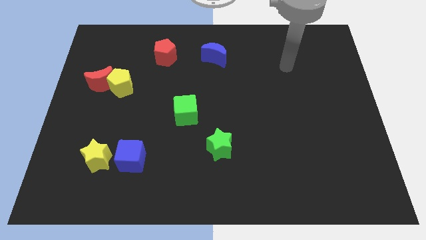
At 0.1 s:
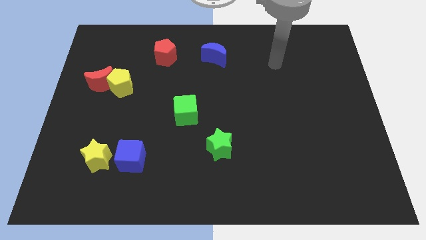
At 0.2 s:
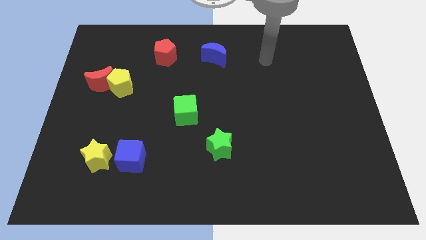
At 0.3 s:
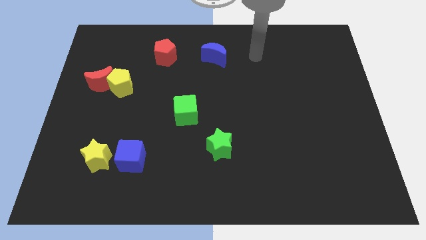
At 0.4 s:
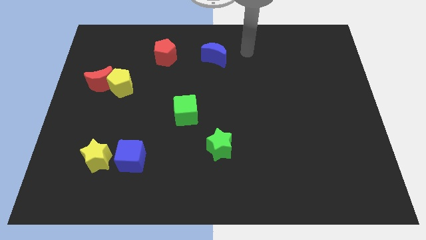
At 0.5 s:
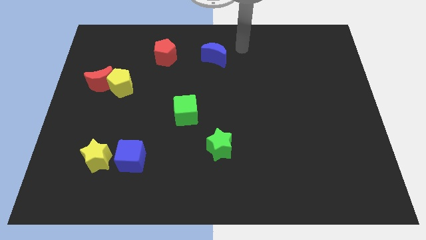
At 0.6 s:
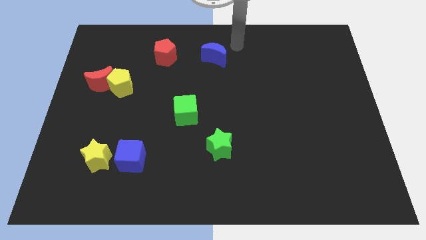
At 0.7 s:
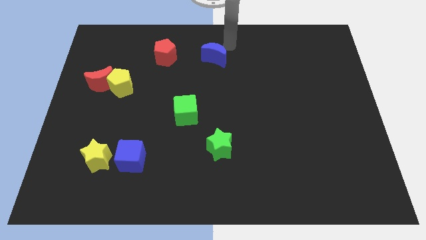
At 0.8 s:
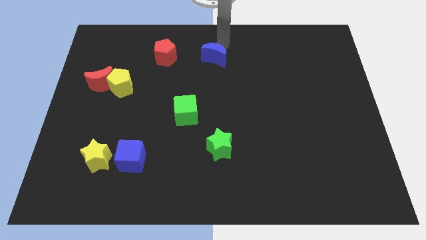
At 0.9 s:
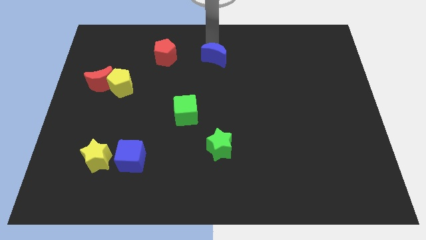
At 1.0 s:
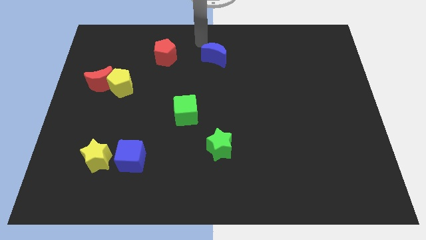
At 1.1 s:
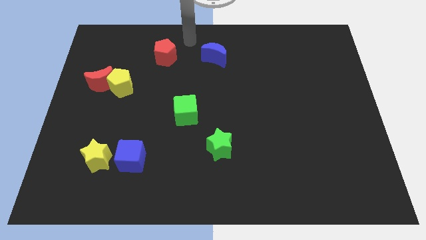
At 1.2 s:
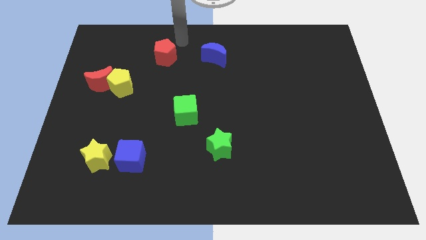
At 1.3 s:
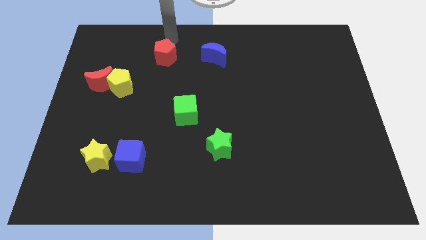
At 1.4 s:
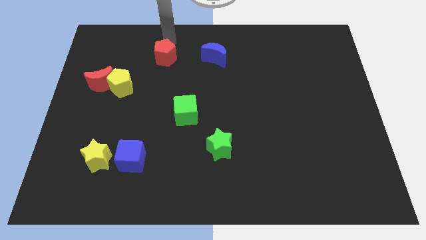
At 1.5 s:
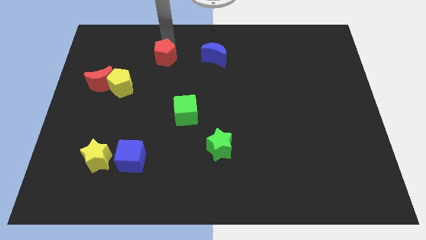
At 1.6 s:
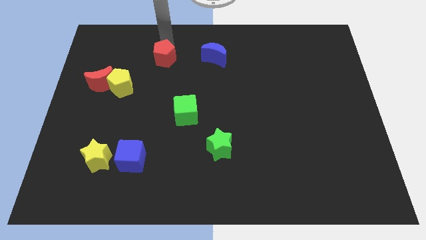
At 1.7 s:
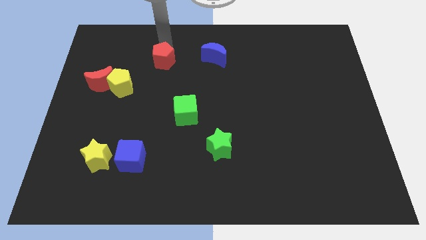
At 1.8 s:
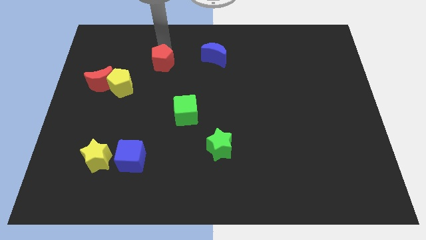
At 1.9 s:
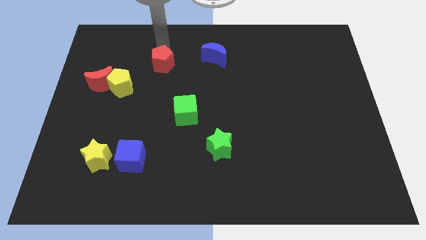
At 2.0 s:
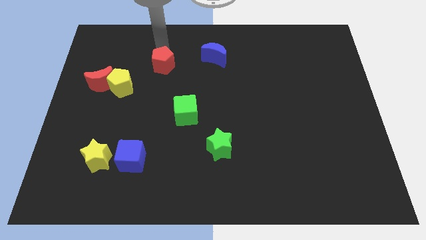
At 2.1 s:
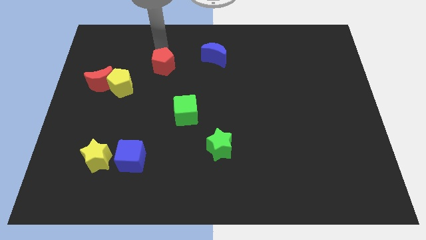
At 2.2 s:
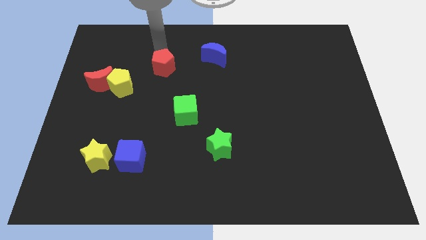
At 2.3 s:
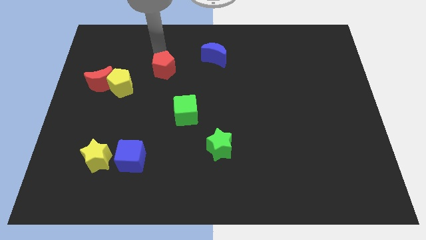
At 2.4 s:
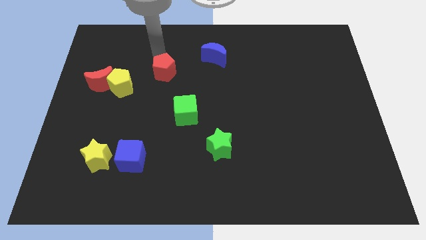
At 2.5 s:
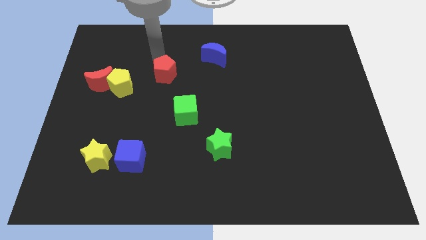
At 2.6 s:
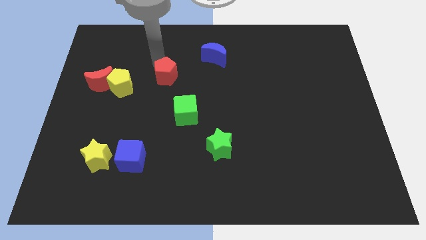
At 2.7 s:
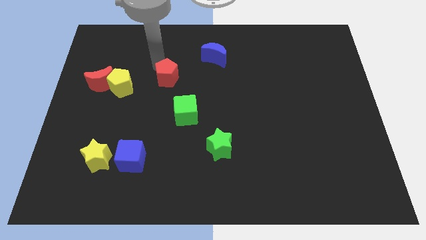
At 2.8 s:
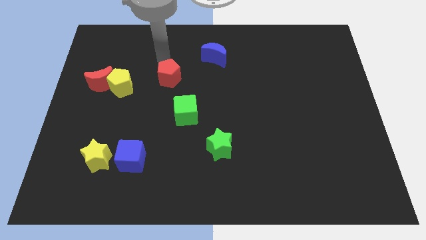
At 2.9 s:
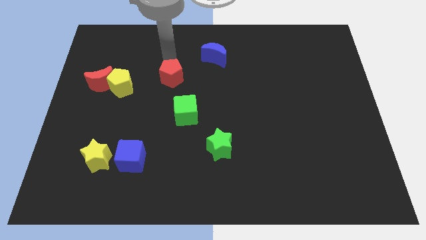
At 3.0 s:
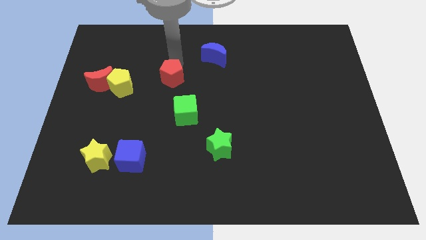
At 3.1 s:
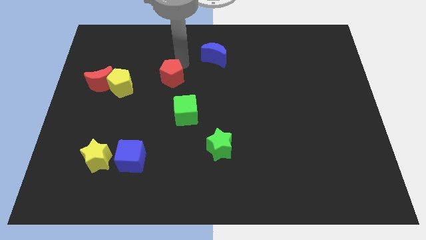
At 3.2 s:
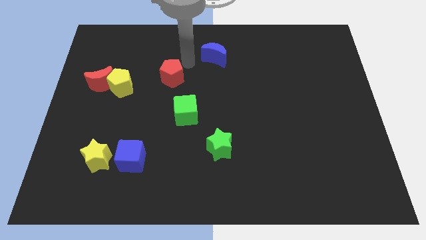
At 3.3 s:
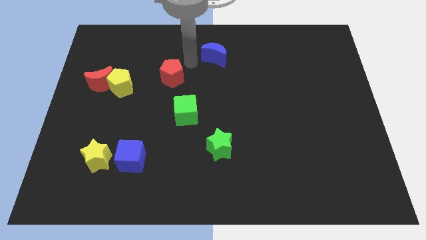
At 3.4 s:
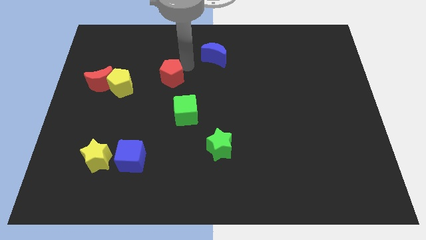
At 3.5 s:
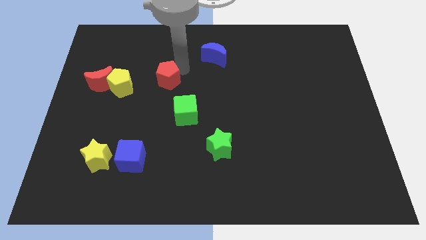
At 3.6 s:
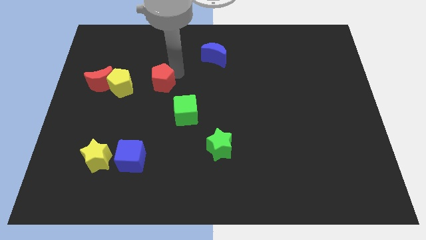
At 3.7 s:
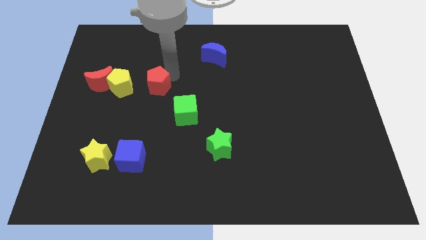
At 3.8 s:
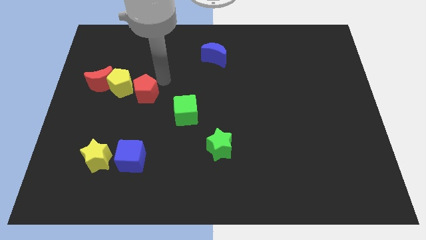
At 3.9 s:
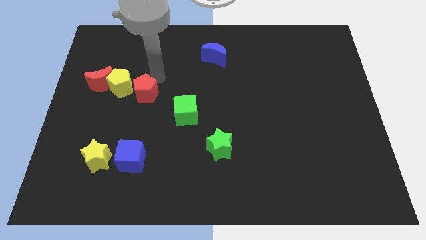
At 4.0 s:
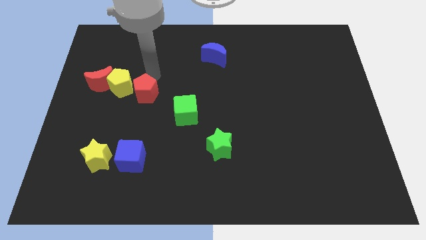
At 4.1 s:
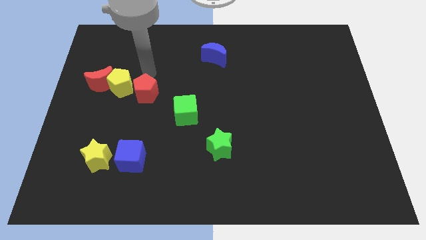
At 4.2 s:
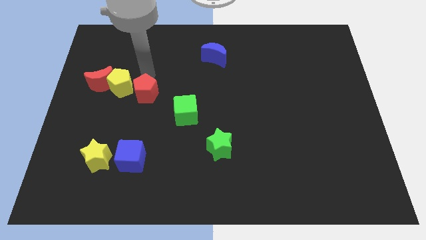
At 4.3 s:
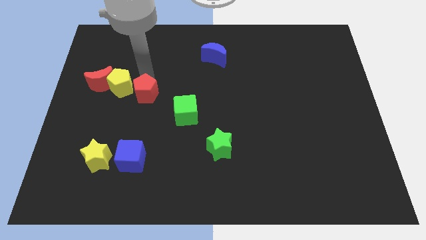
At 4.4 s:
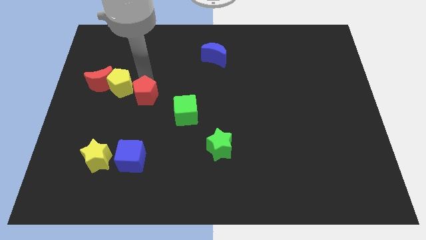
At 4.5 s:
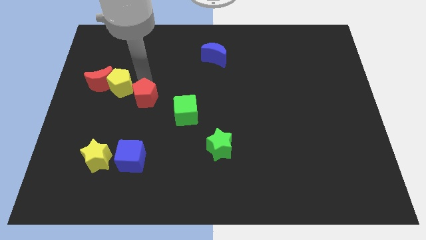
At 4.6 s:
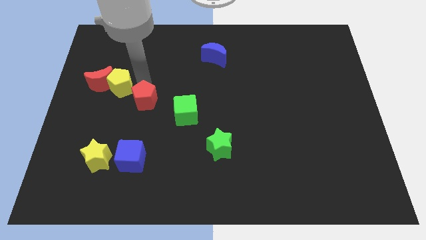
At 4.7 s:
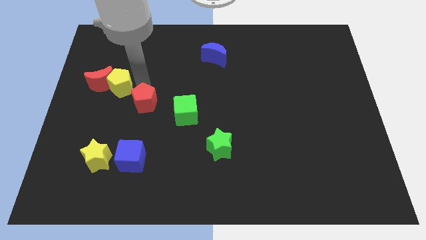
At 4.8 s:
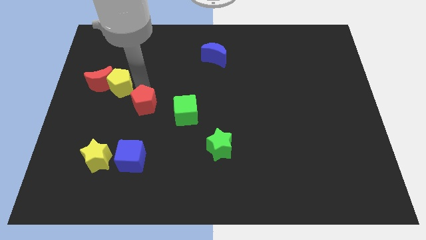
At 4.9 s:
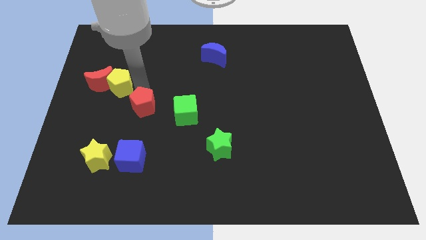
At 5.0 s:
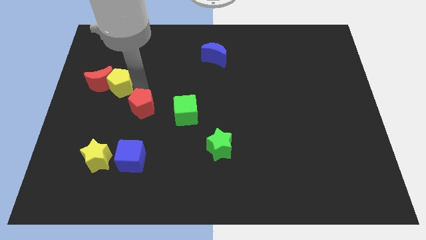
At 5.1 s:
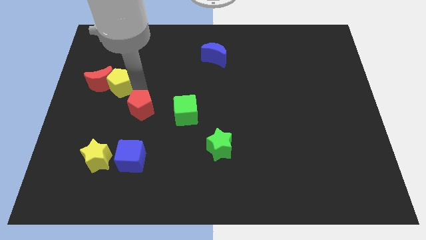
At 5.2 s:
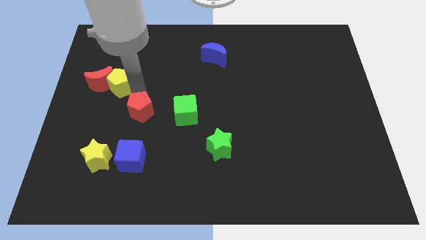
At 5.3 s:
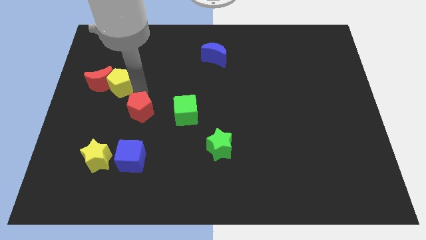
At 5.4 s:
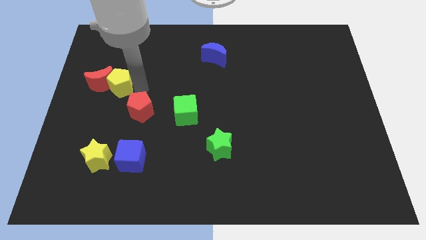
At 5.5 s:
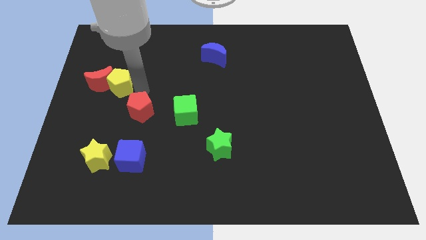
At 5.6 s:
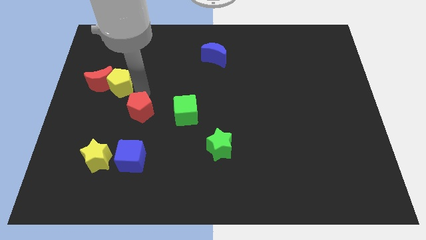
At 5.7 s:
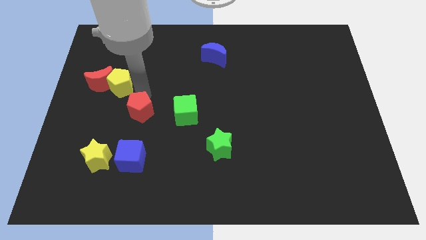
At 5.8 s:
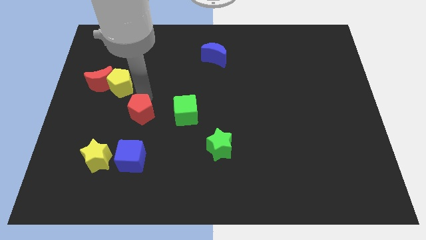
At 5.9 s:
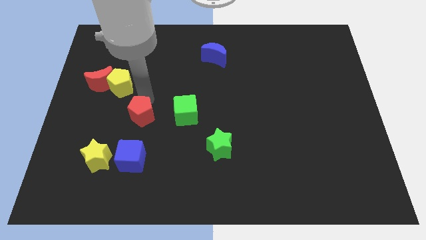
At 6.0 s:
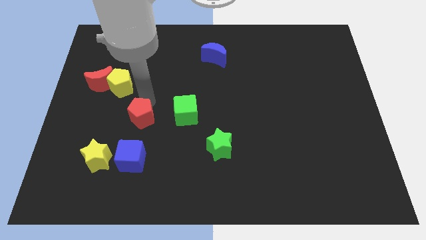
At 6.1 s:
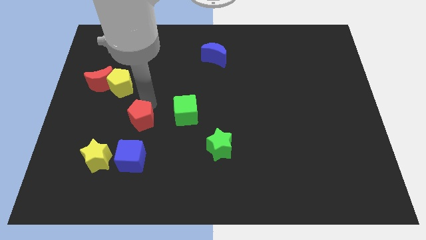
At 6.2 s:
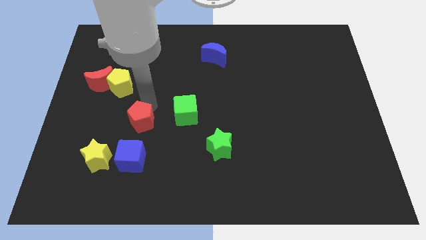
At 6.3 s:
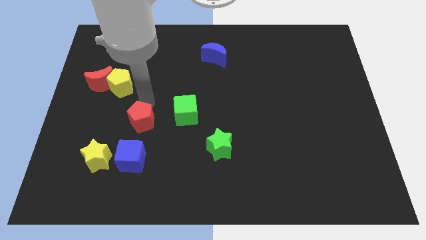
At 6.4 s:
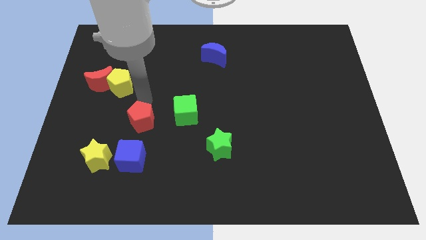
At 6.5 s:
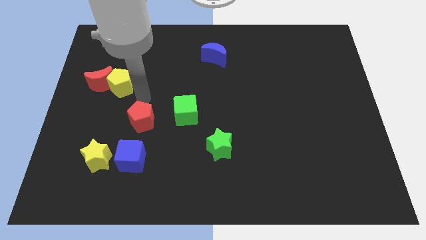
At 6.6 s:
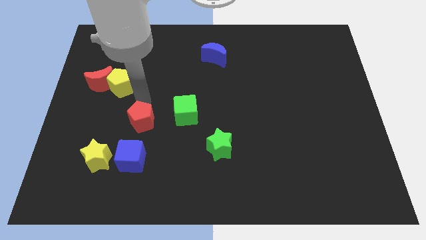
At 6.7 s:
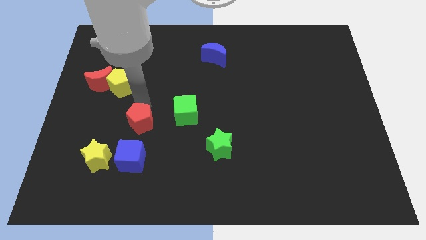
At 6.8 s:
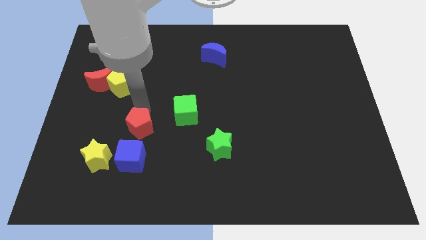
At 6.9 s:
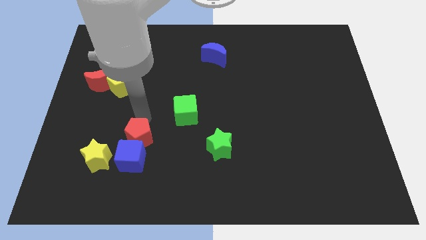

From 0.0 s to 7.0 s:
slide the red pentagon close to the blue cube
